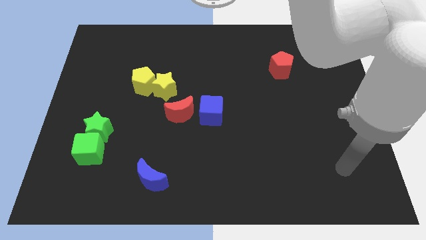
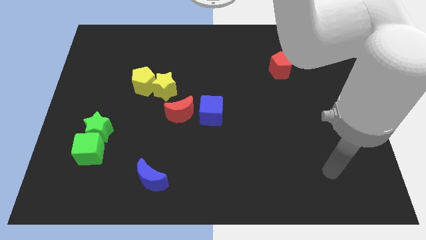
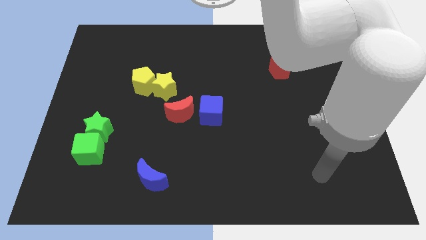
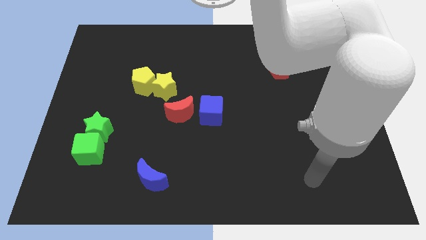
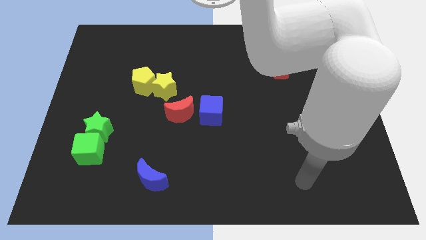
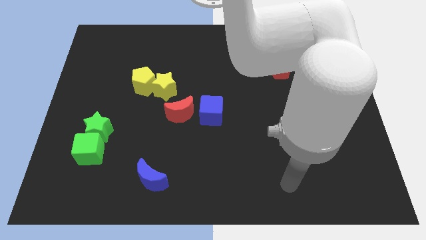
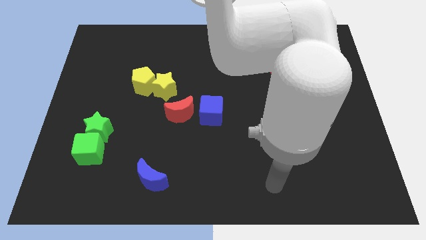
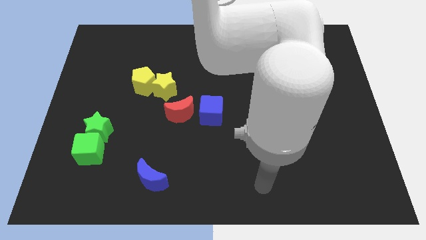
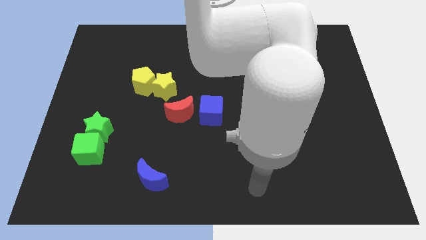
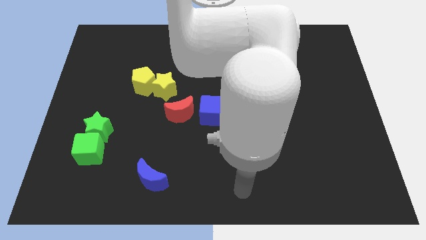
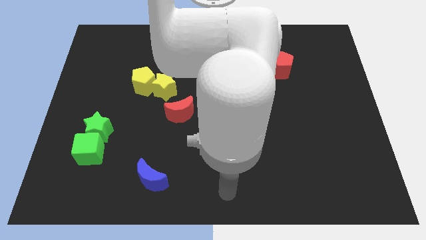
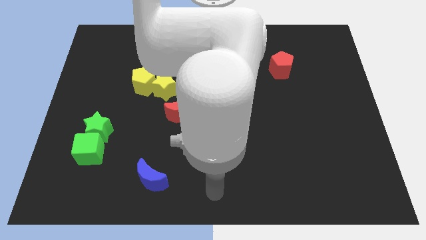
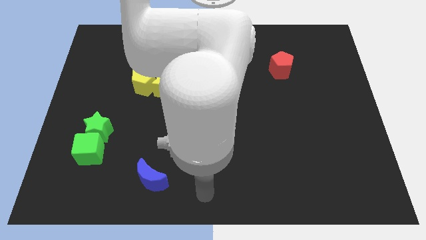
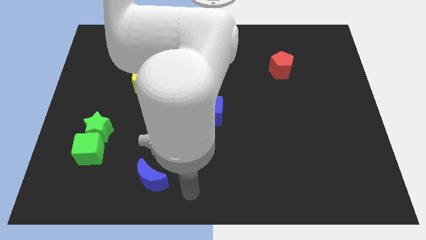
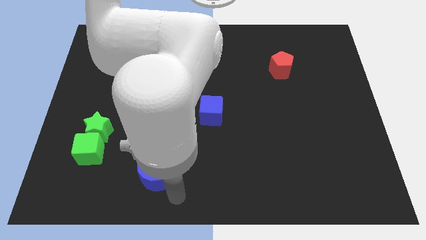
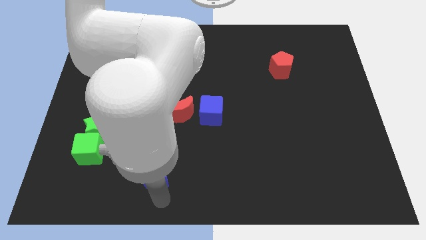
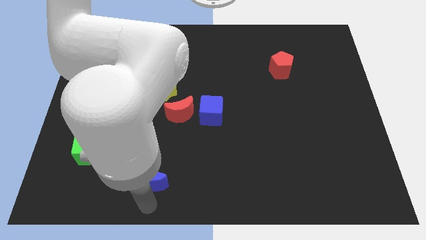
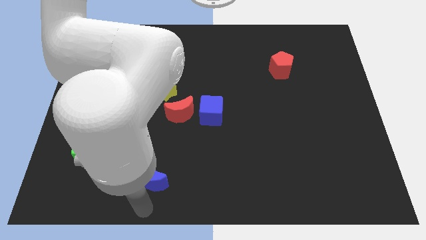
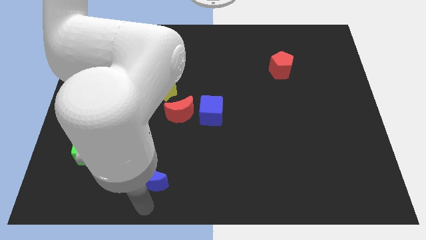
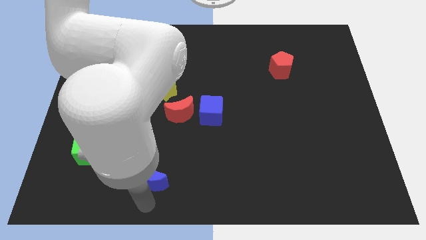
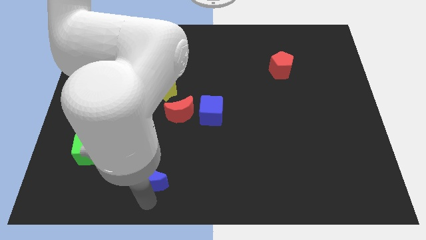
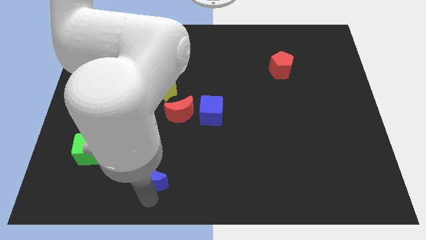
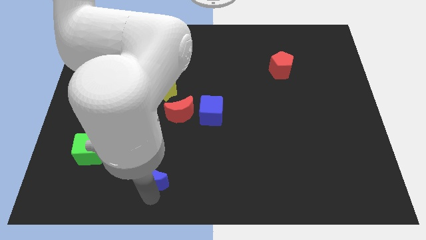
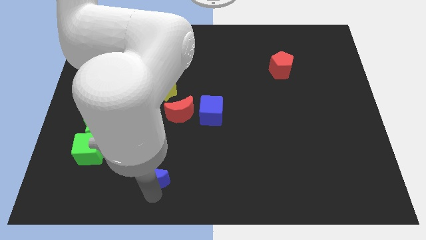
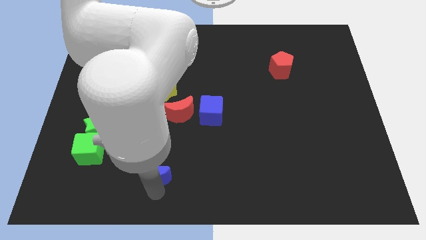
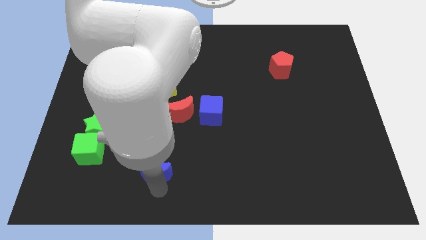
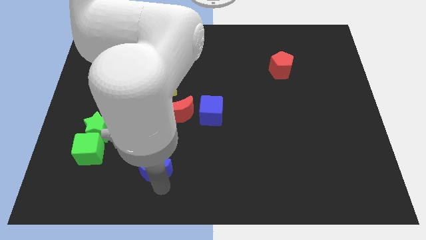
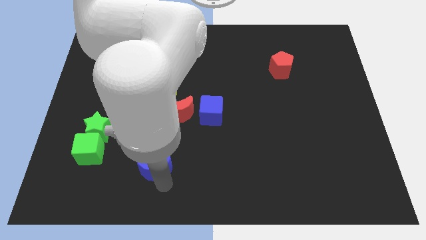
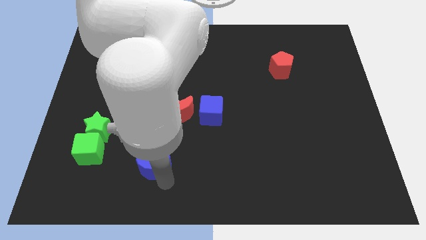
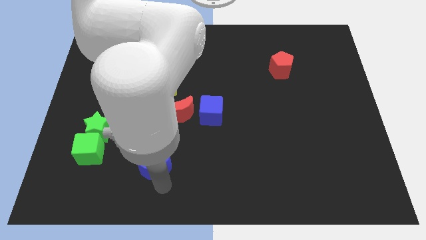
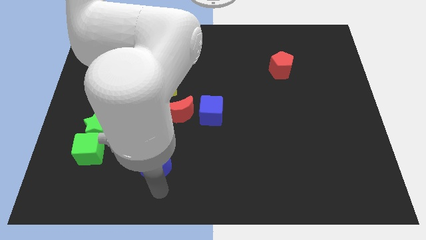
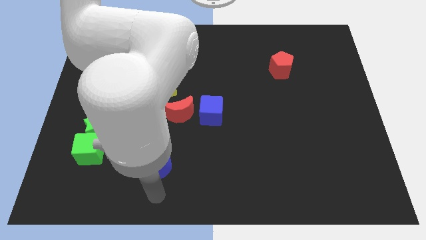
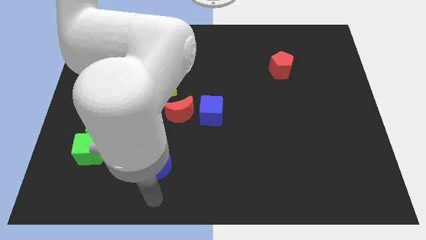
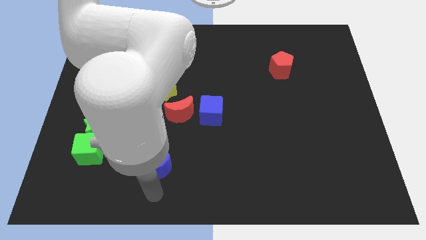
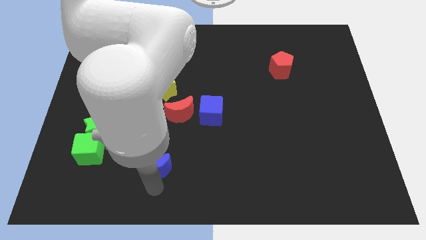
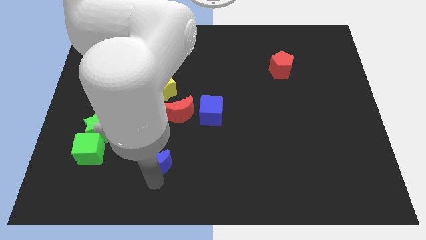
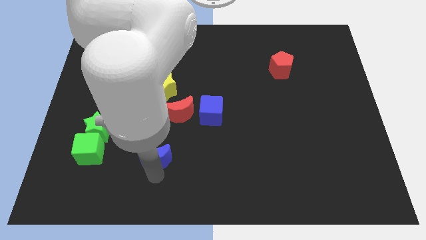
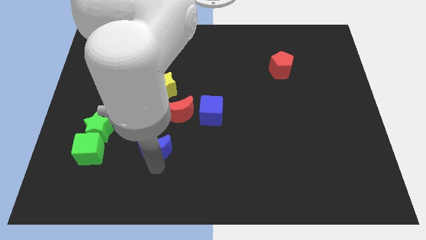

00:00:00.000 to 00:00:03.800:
move the blue moon up a little

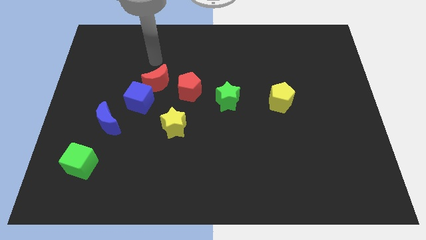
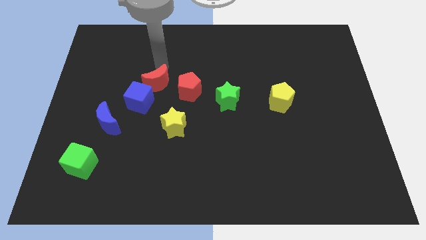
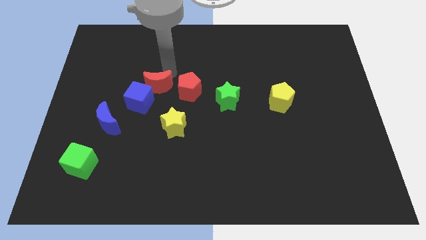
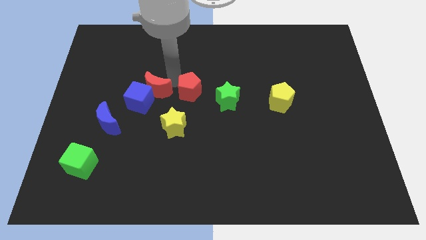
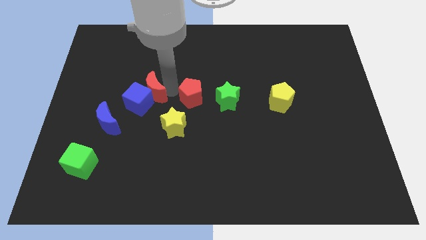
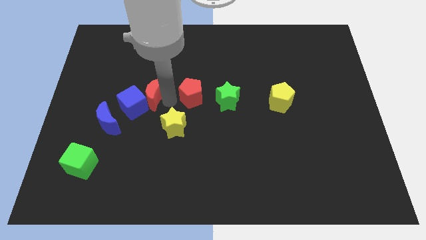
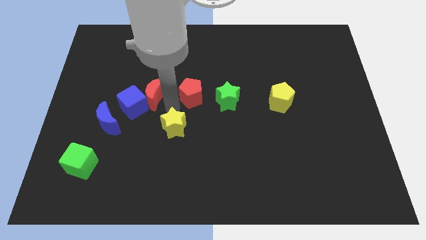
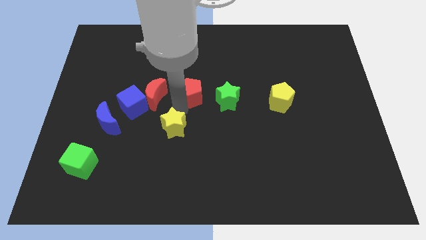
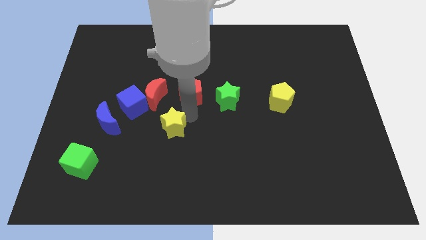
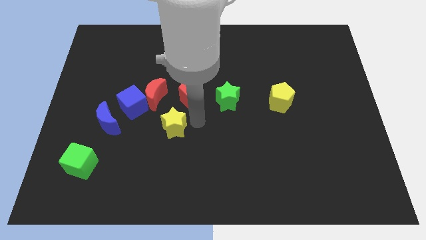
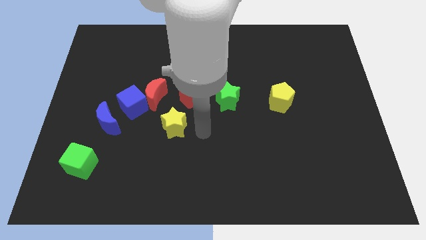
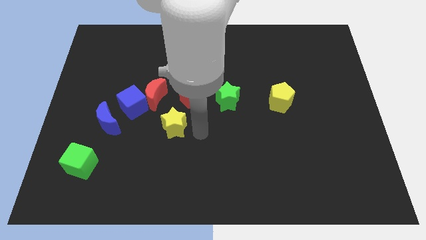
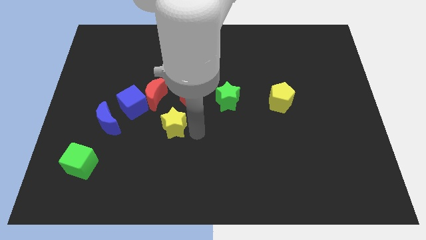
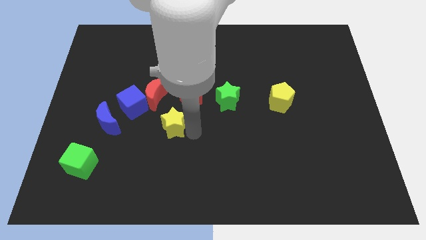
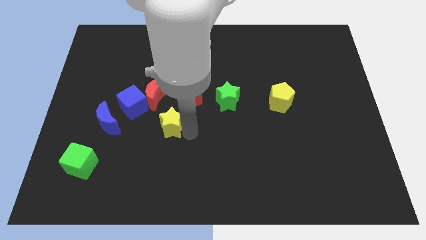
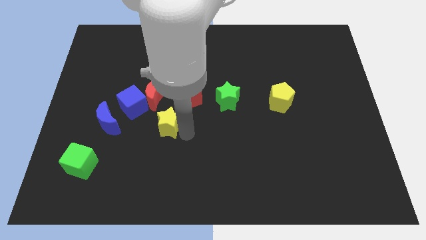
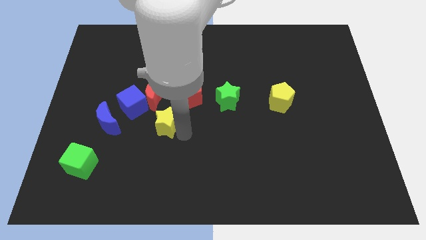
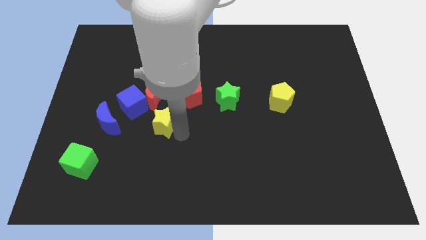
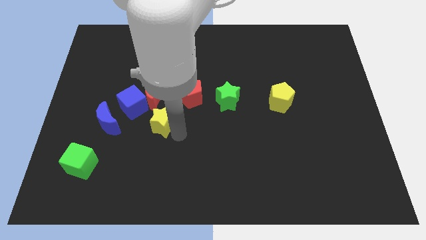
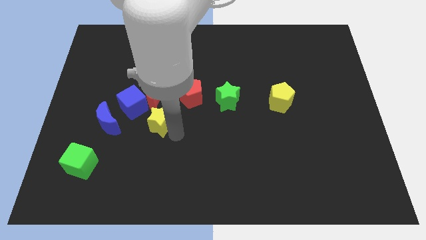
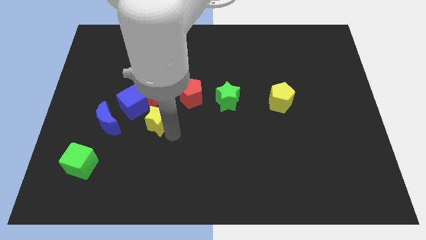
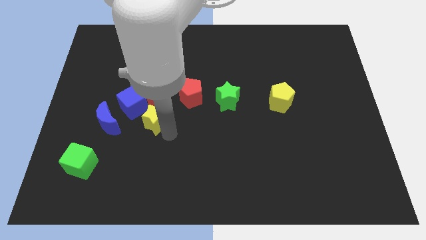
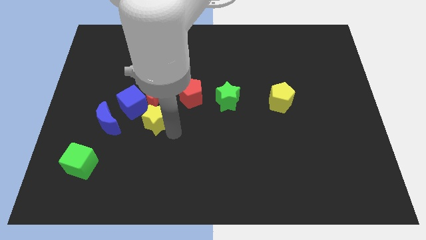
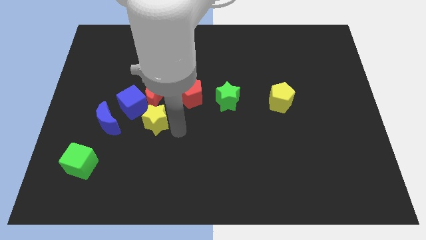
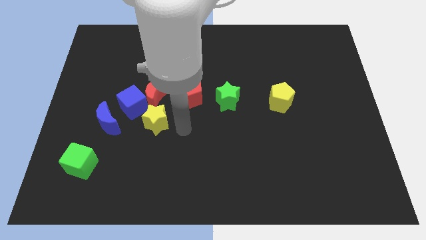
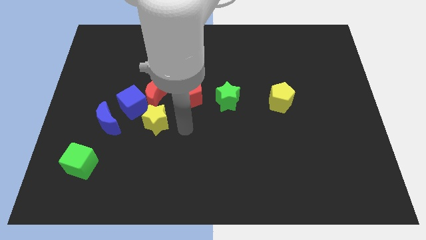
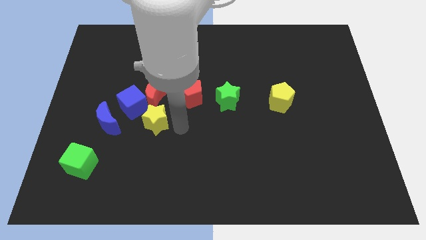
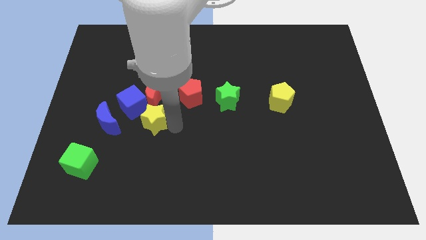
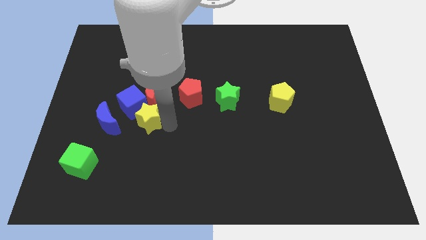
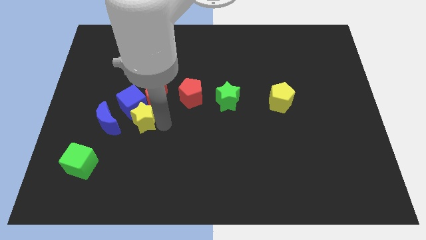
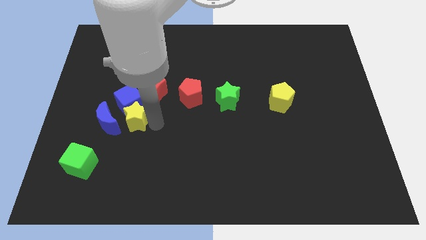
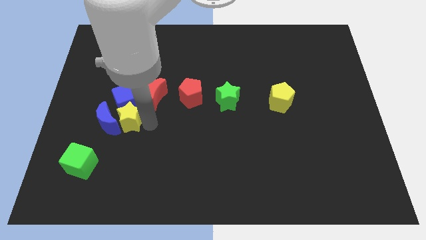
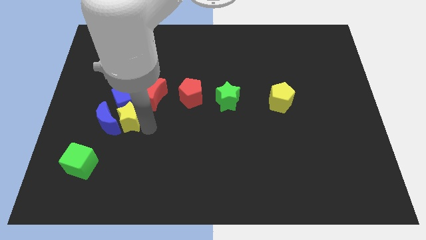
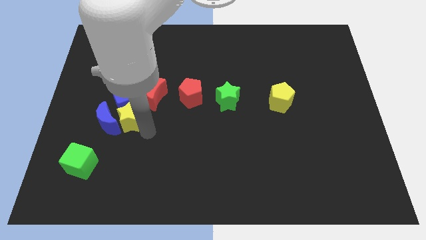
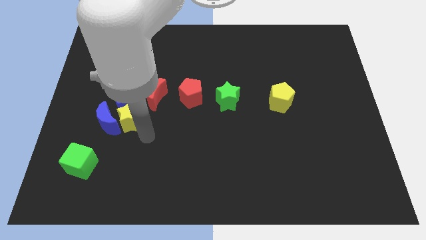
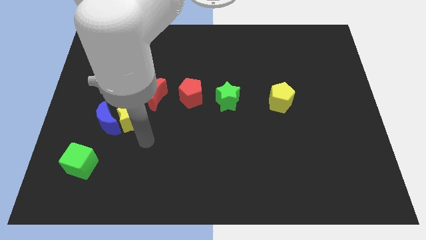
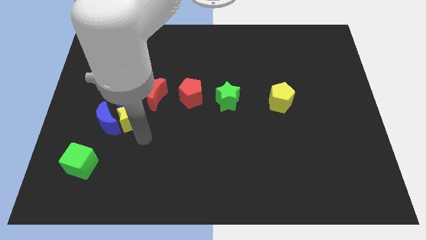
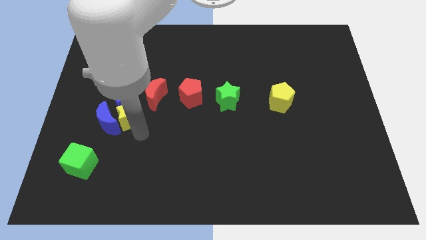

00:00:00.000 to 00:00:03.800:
move the yellow star a little diagonally upwards and to the left
